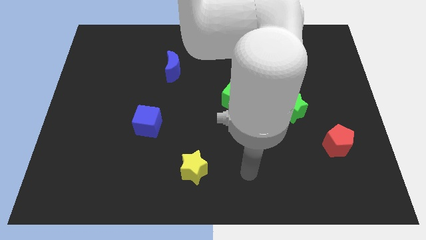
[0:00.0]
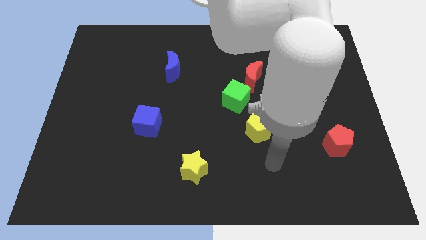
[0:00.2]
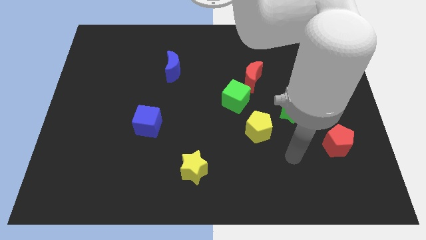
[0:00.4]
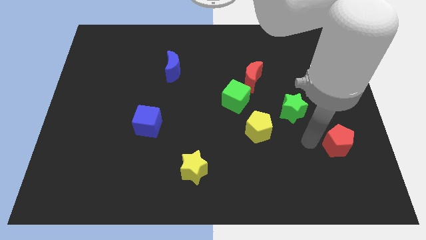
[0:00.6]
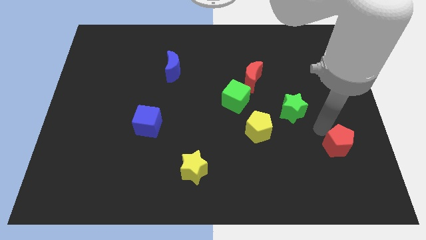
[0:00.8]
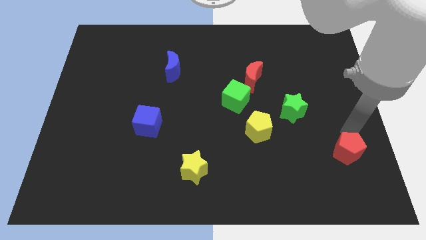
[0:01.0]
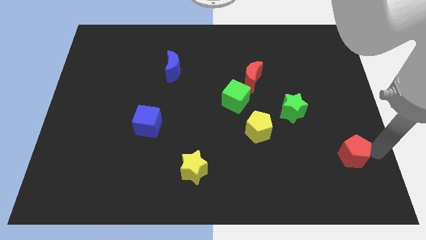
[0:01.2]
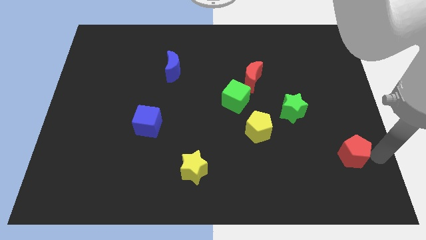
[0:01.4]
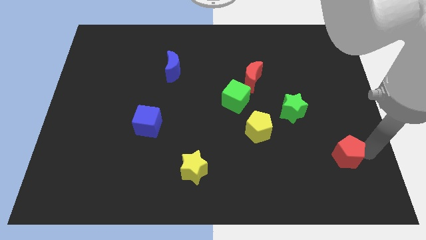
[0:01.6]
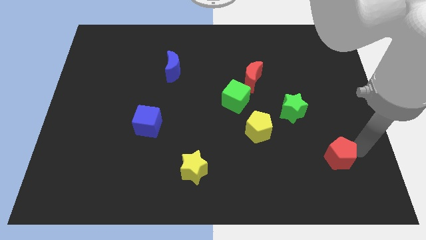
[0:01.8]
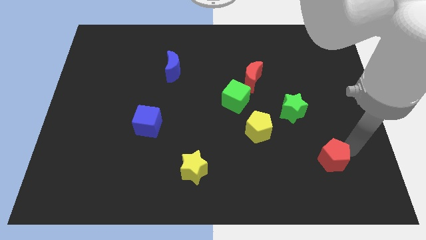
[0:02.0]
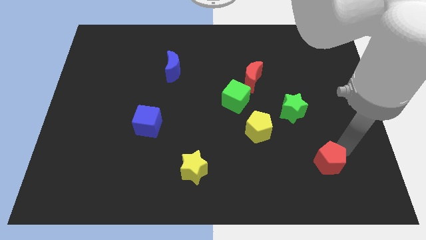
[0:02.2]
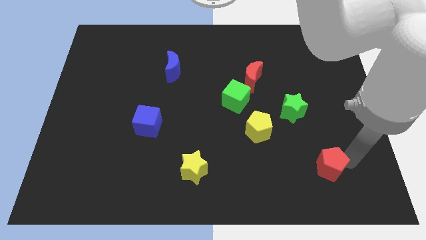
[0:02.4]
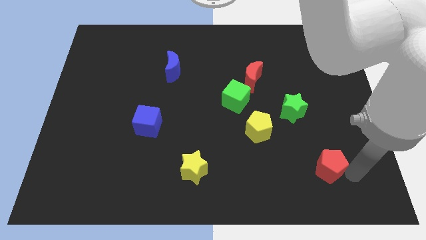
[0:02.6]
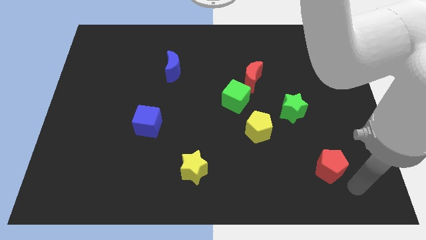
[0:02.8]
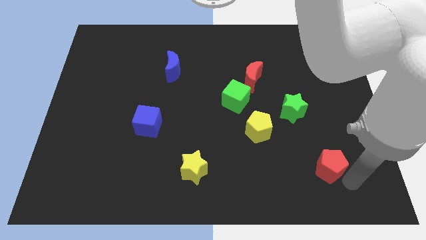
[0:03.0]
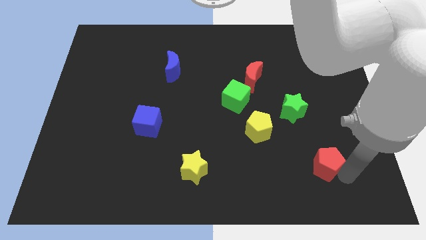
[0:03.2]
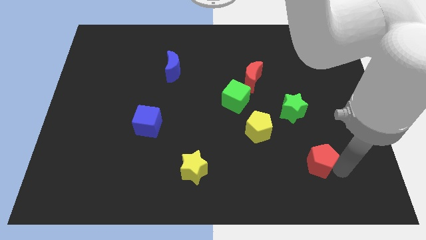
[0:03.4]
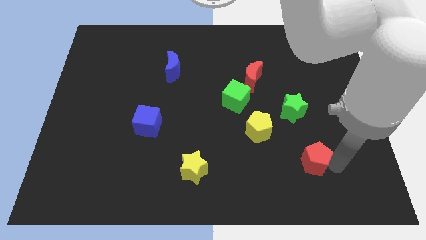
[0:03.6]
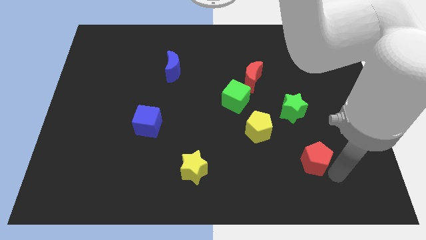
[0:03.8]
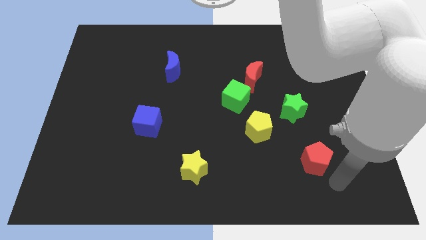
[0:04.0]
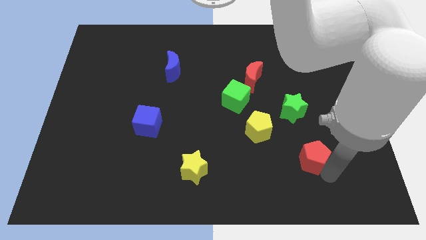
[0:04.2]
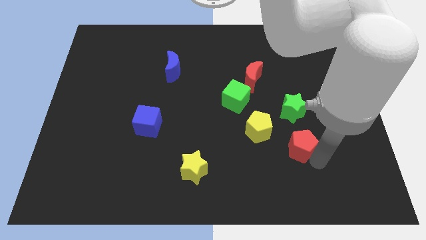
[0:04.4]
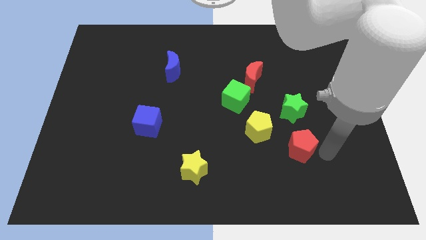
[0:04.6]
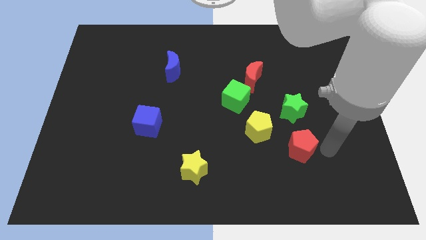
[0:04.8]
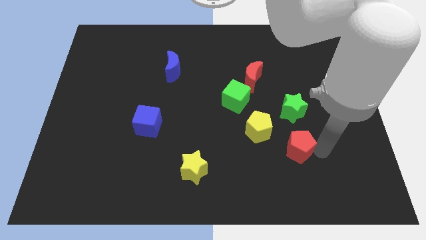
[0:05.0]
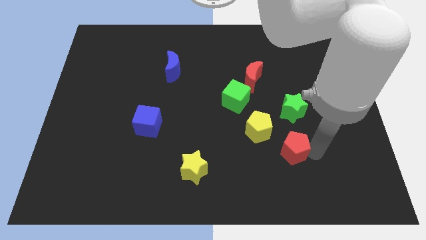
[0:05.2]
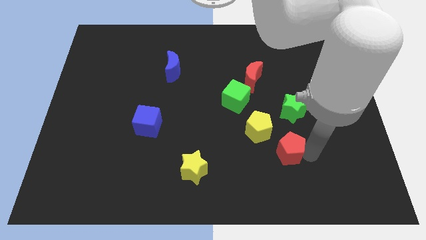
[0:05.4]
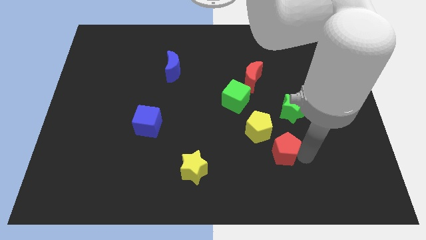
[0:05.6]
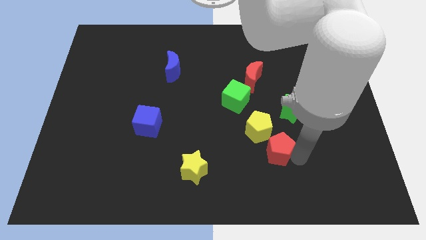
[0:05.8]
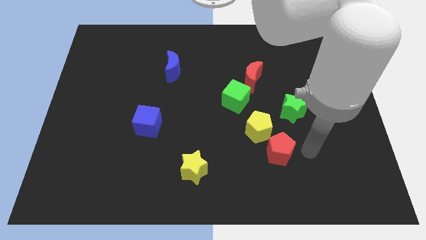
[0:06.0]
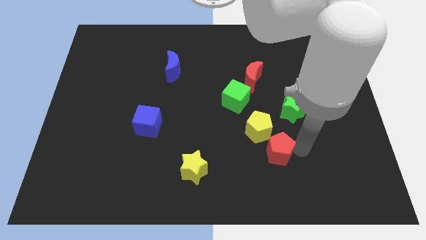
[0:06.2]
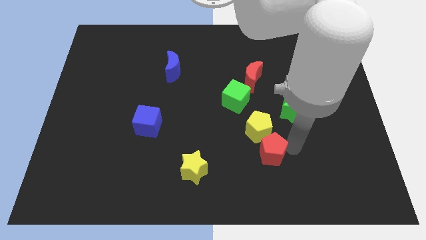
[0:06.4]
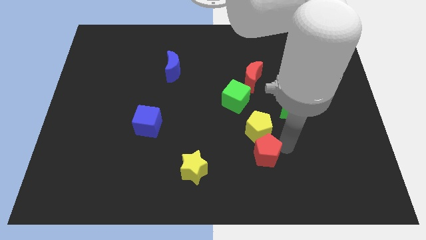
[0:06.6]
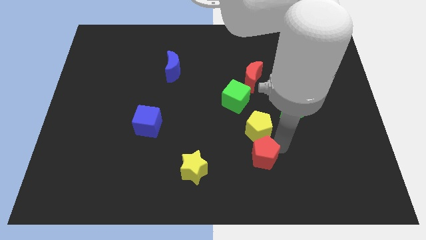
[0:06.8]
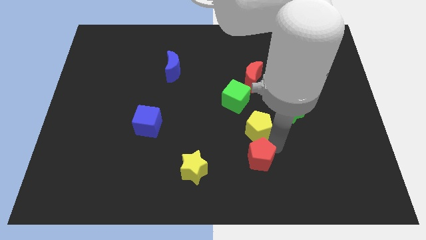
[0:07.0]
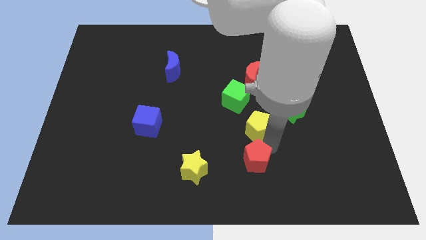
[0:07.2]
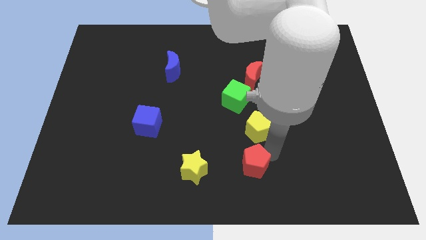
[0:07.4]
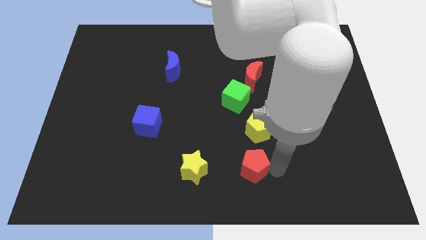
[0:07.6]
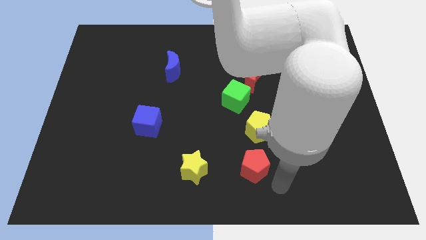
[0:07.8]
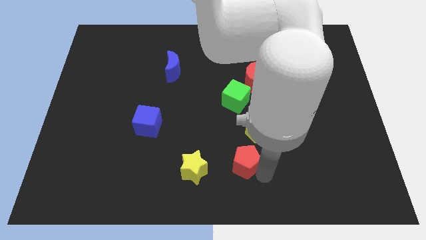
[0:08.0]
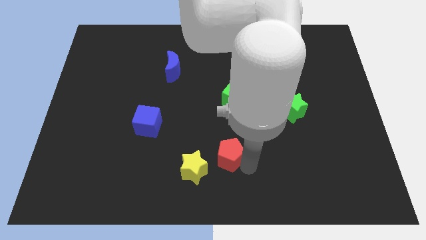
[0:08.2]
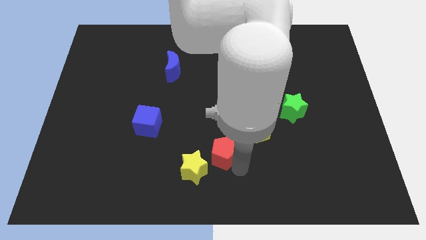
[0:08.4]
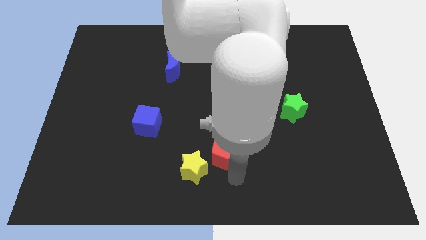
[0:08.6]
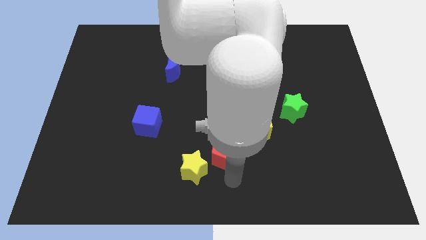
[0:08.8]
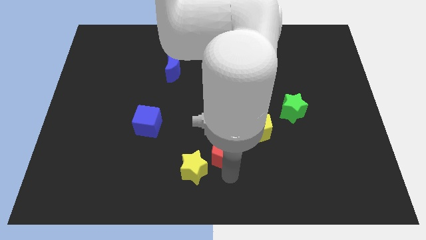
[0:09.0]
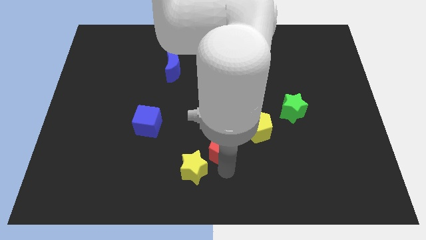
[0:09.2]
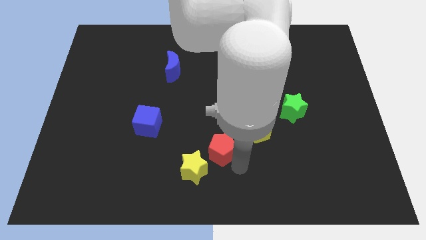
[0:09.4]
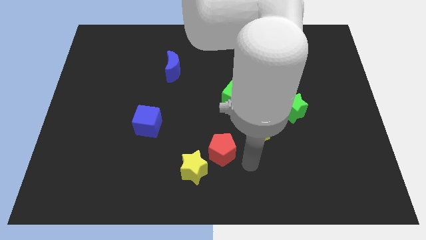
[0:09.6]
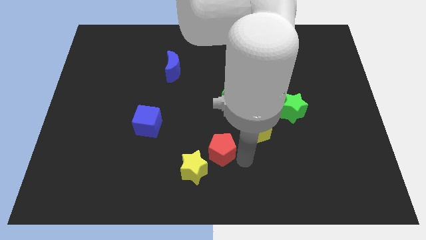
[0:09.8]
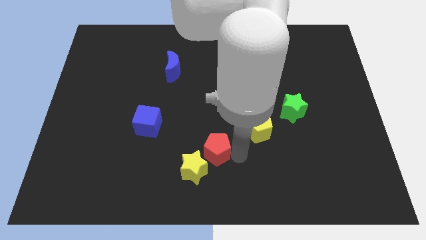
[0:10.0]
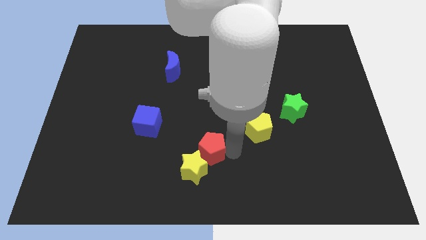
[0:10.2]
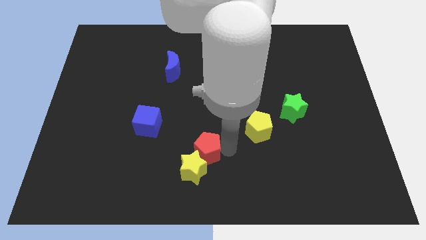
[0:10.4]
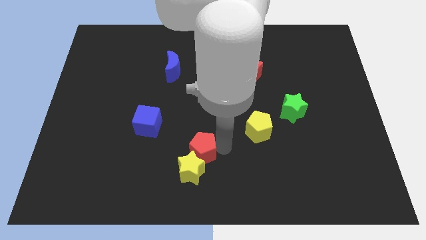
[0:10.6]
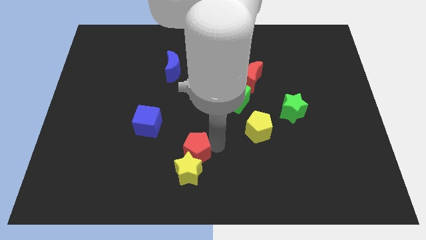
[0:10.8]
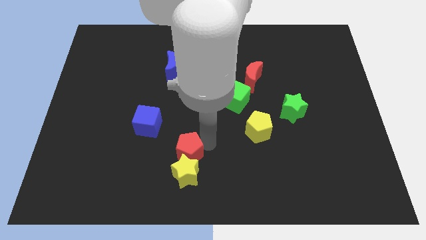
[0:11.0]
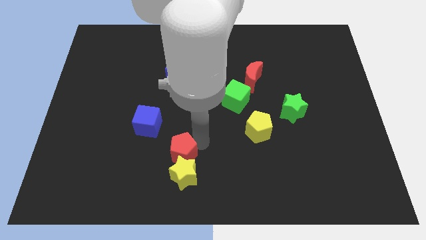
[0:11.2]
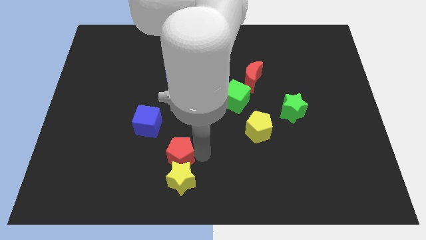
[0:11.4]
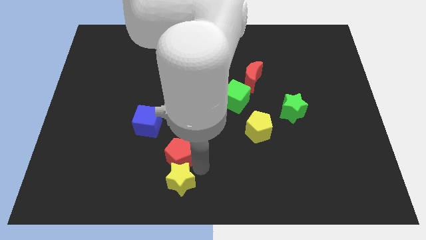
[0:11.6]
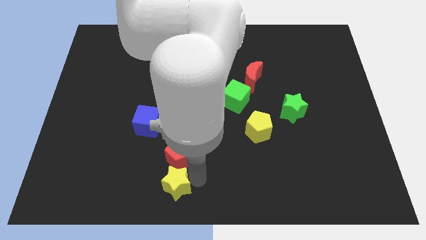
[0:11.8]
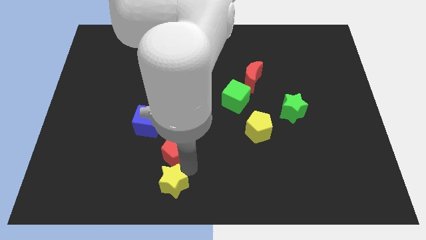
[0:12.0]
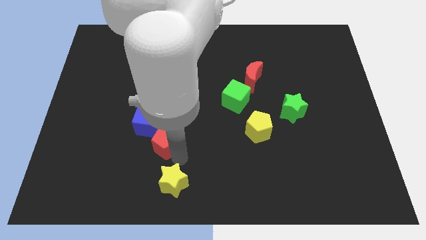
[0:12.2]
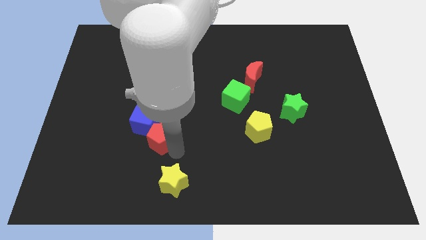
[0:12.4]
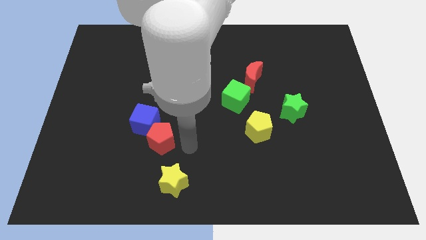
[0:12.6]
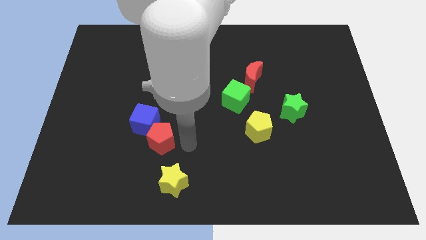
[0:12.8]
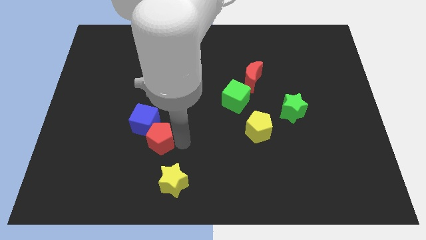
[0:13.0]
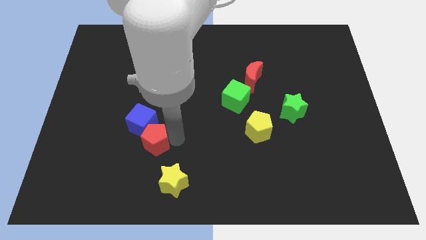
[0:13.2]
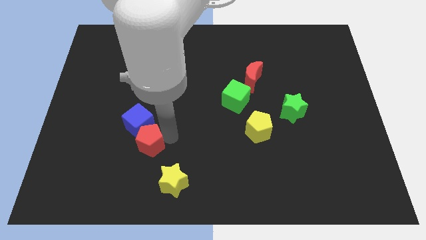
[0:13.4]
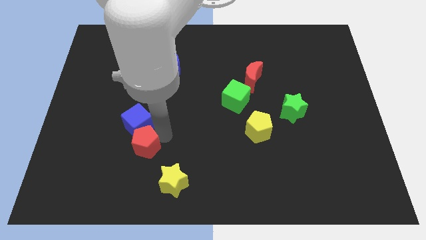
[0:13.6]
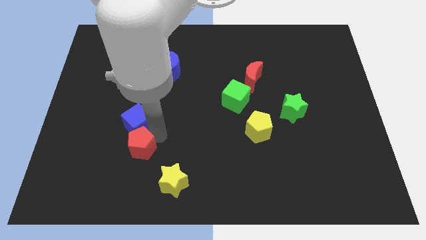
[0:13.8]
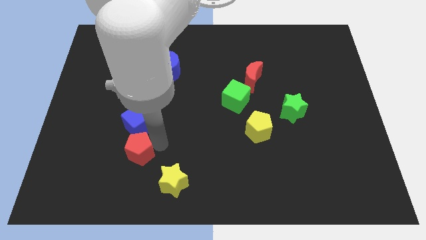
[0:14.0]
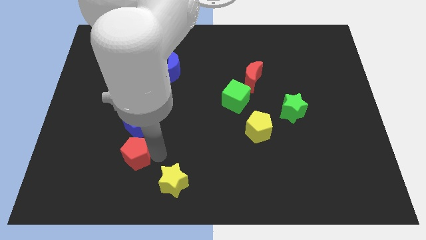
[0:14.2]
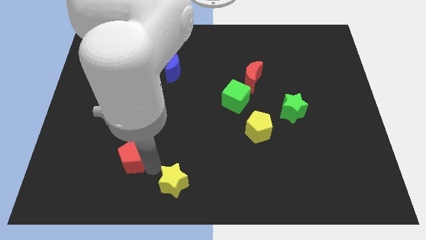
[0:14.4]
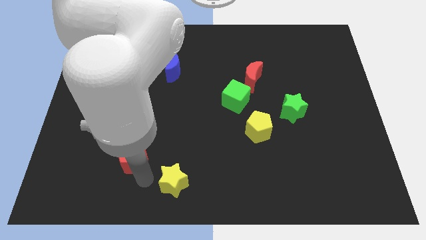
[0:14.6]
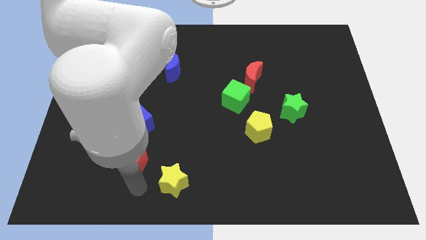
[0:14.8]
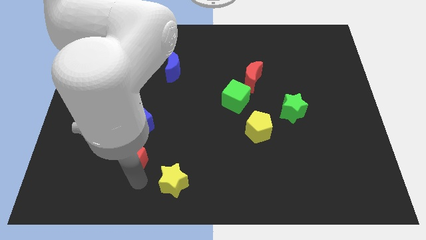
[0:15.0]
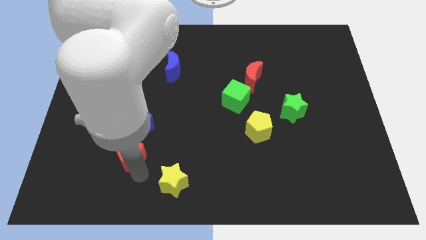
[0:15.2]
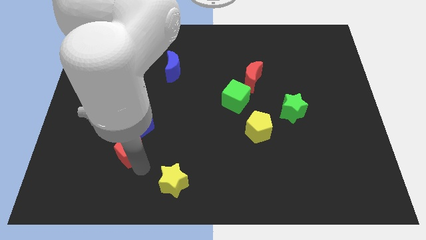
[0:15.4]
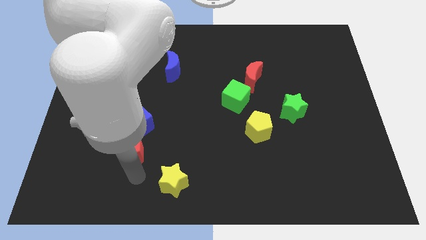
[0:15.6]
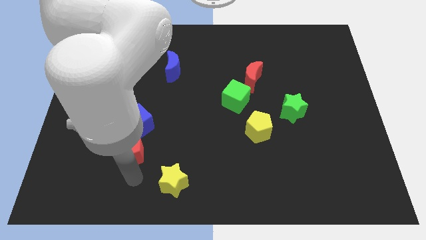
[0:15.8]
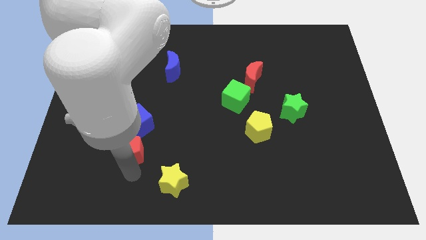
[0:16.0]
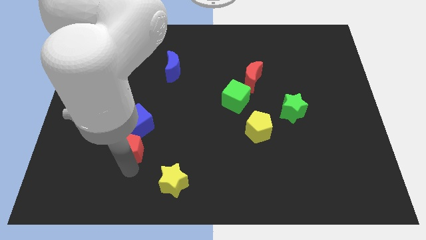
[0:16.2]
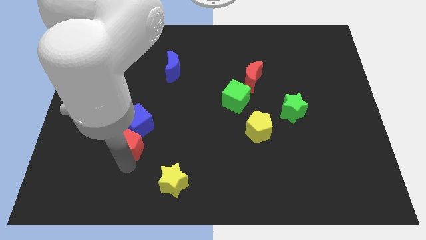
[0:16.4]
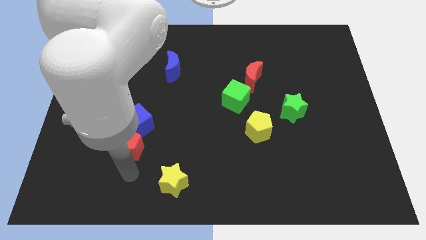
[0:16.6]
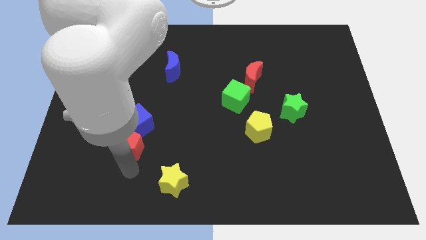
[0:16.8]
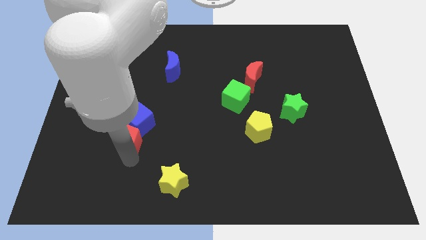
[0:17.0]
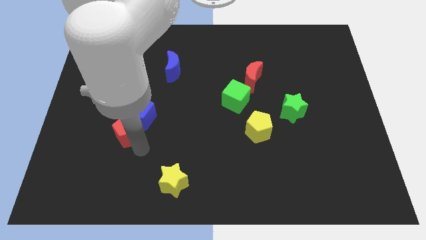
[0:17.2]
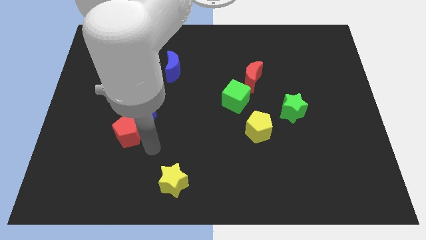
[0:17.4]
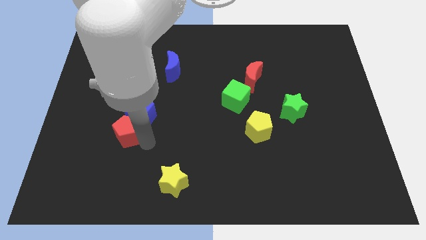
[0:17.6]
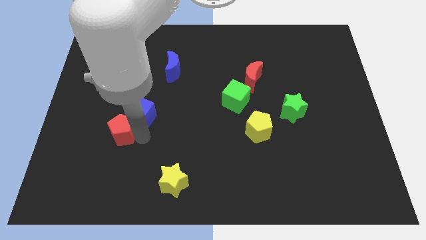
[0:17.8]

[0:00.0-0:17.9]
put the red pentagon just left of the blue cube
